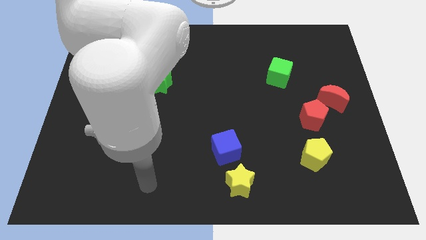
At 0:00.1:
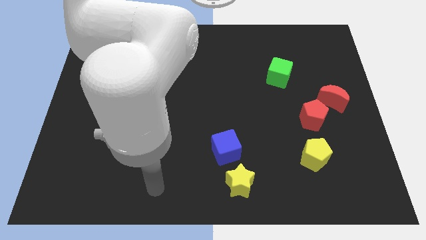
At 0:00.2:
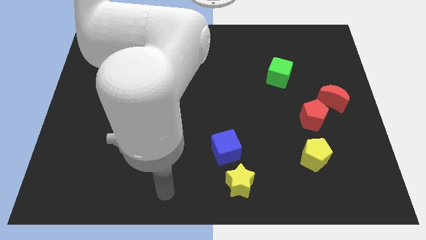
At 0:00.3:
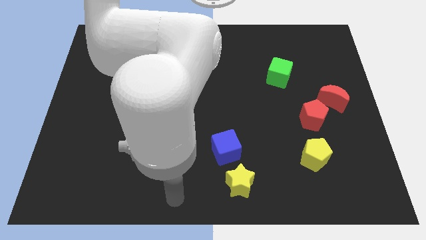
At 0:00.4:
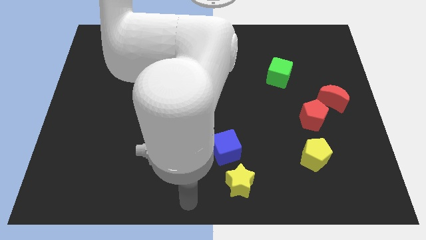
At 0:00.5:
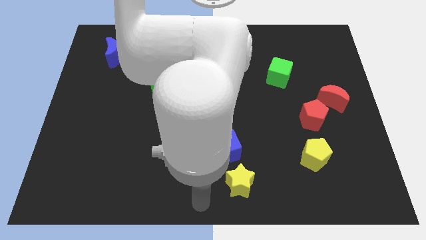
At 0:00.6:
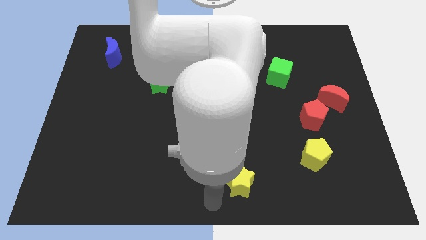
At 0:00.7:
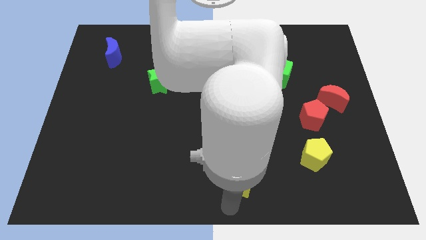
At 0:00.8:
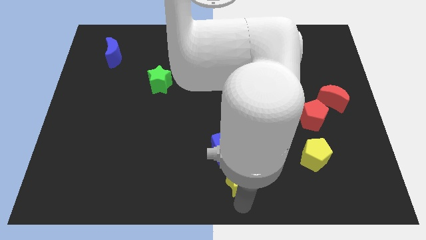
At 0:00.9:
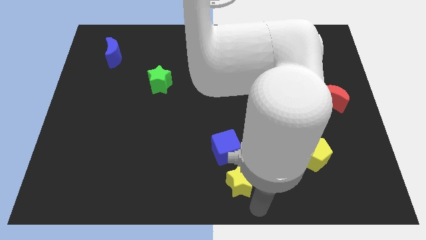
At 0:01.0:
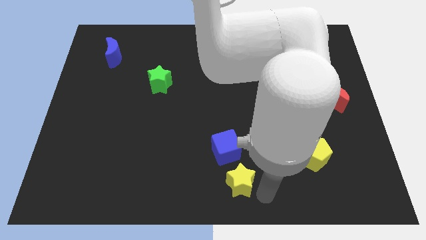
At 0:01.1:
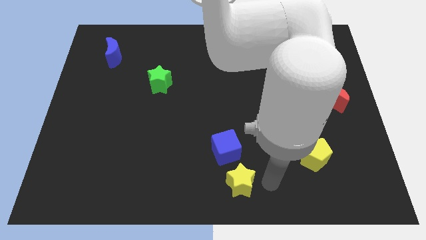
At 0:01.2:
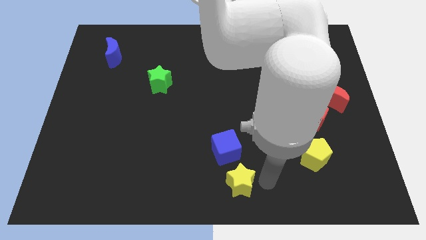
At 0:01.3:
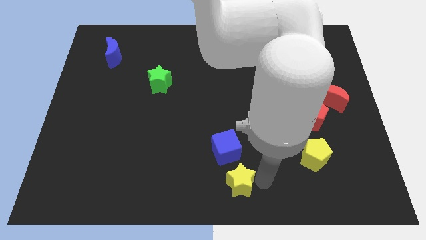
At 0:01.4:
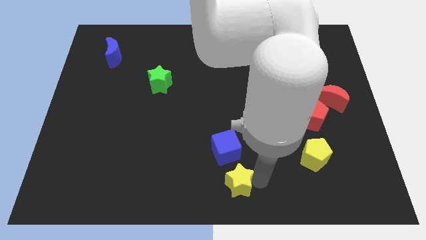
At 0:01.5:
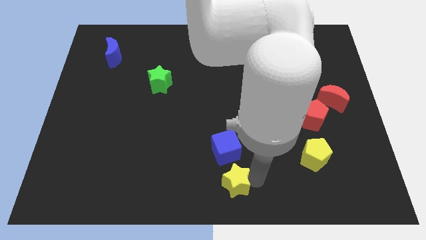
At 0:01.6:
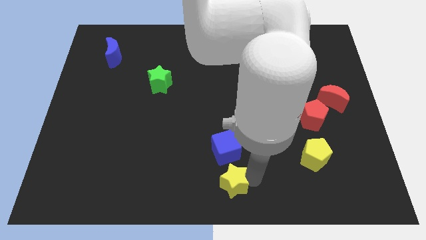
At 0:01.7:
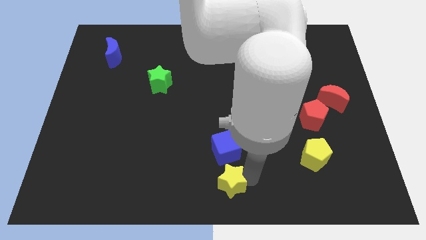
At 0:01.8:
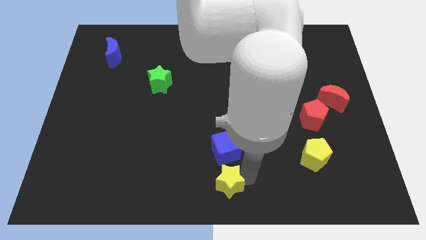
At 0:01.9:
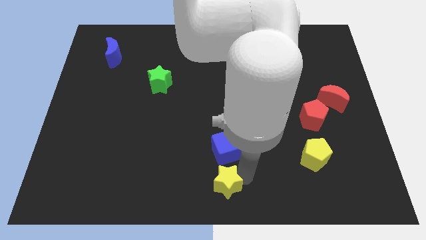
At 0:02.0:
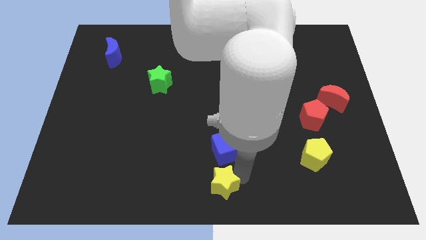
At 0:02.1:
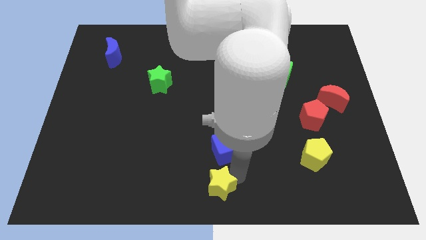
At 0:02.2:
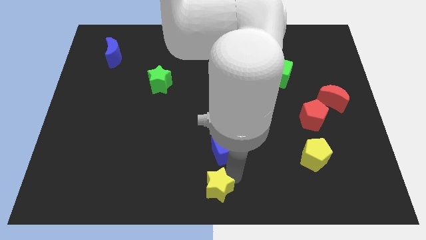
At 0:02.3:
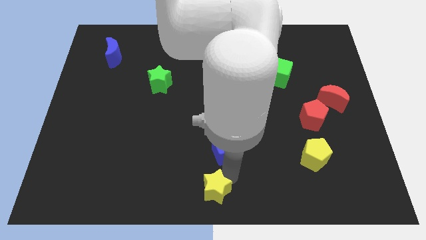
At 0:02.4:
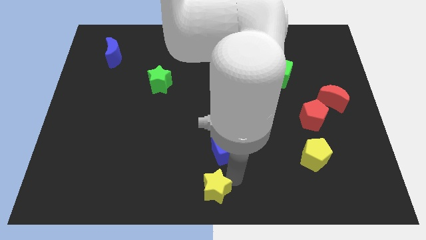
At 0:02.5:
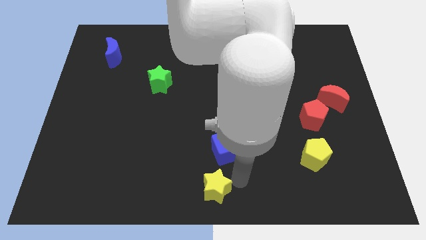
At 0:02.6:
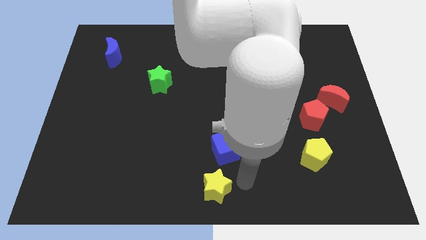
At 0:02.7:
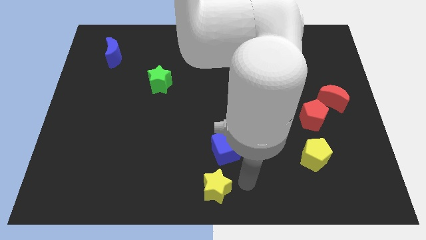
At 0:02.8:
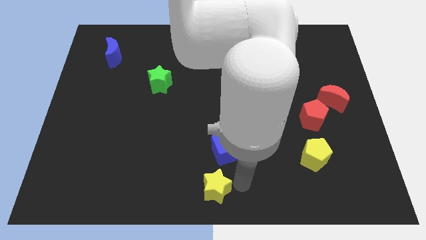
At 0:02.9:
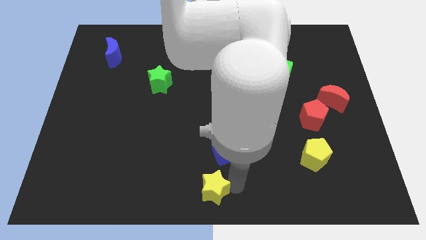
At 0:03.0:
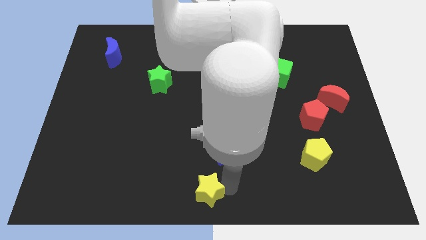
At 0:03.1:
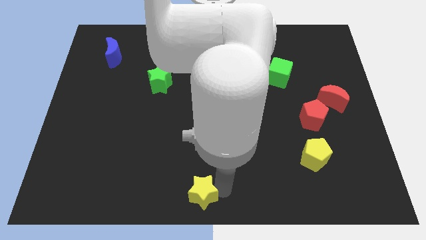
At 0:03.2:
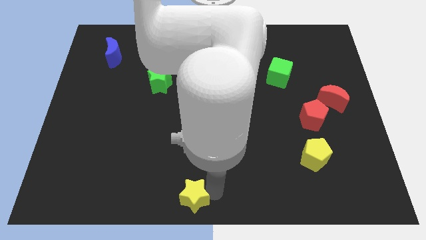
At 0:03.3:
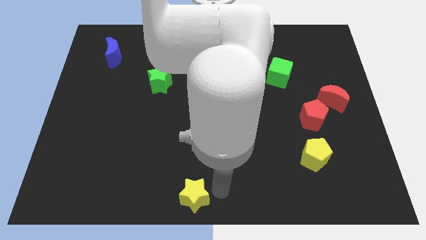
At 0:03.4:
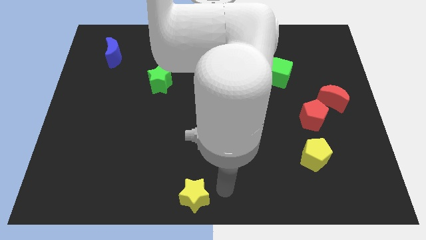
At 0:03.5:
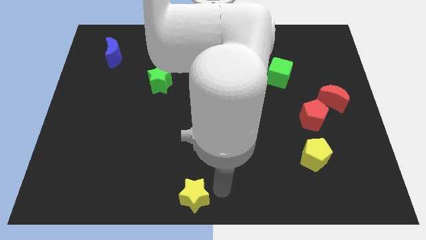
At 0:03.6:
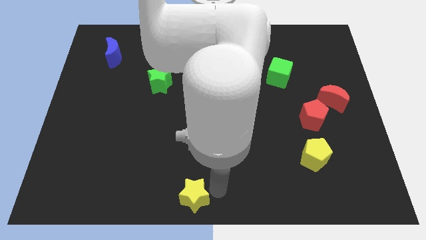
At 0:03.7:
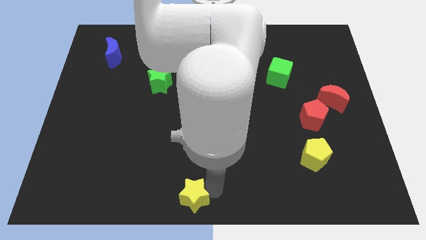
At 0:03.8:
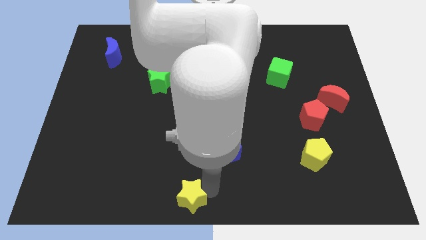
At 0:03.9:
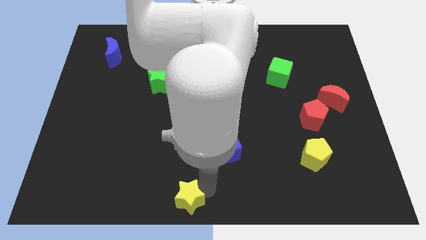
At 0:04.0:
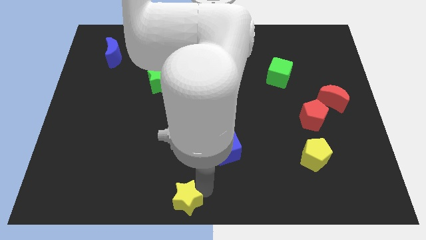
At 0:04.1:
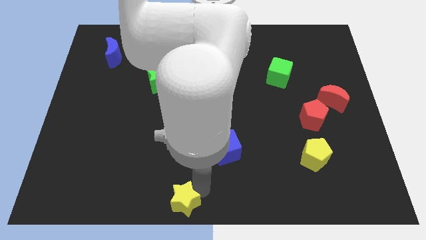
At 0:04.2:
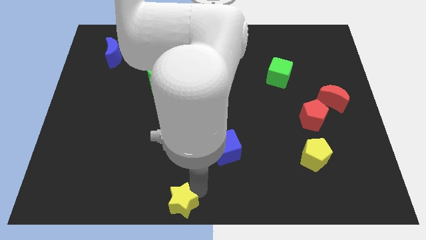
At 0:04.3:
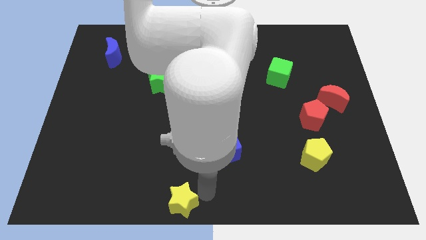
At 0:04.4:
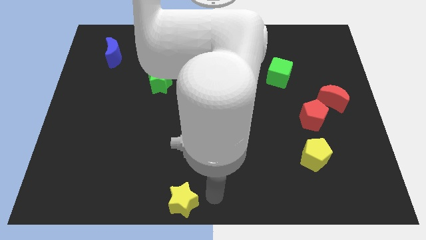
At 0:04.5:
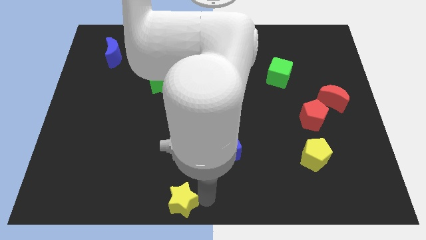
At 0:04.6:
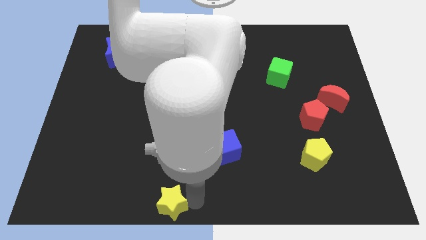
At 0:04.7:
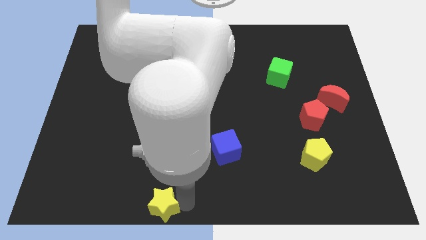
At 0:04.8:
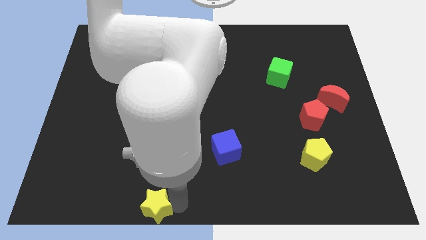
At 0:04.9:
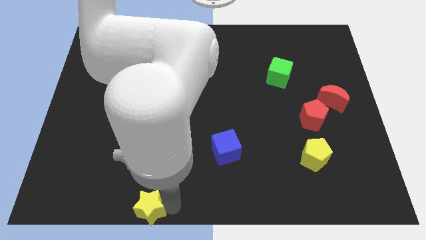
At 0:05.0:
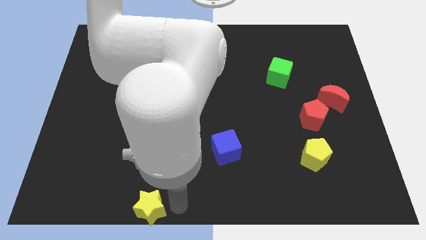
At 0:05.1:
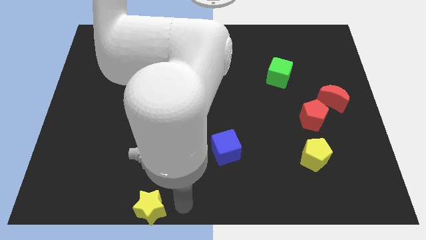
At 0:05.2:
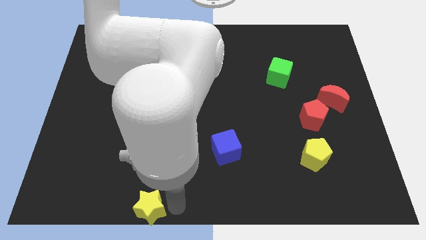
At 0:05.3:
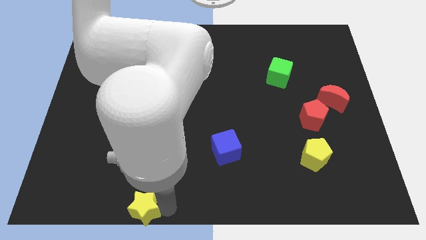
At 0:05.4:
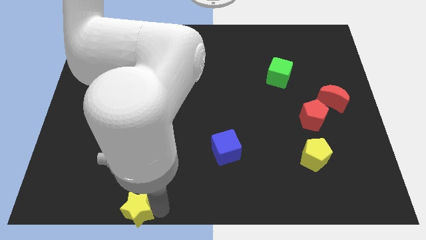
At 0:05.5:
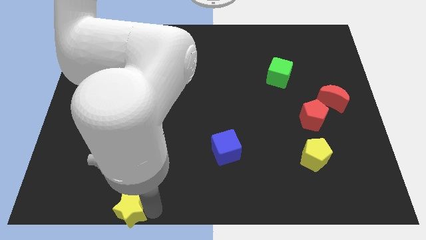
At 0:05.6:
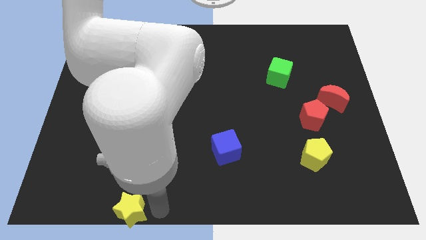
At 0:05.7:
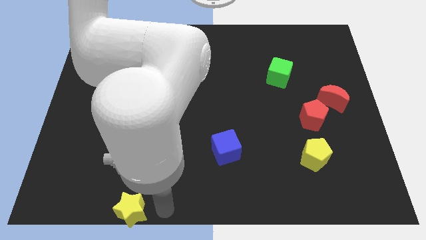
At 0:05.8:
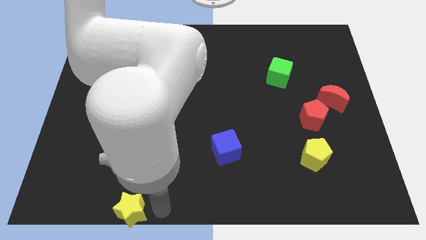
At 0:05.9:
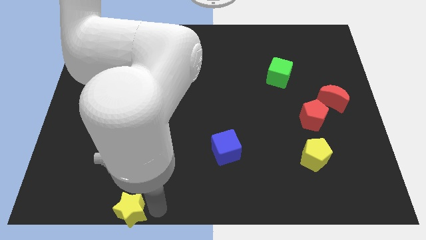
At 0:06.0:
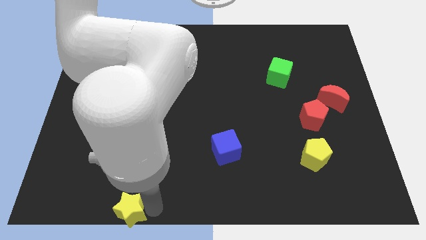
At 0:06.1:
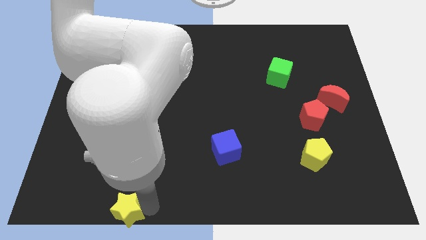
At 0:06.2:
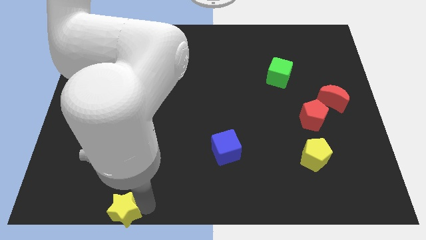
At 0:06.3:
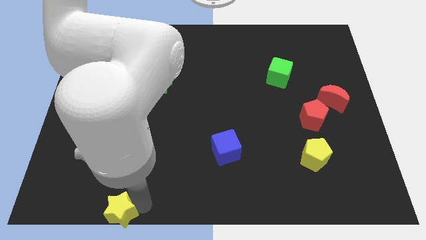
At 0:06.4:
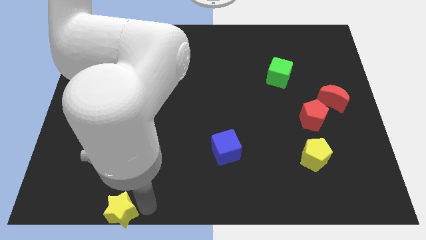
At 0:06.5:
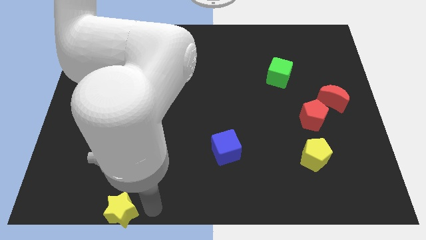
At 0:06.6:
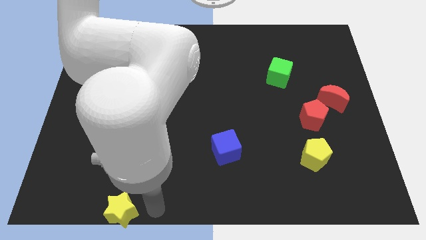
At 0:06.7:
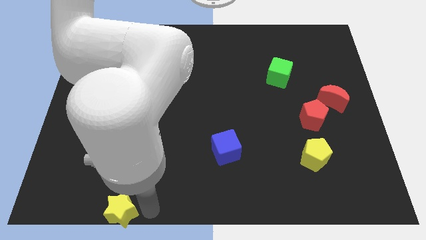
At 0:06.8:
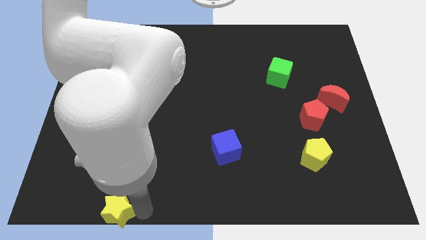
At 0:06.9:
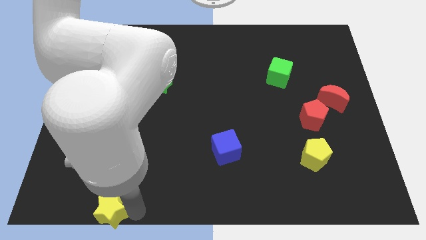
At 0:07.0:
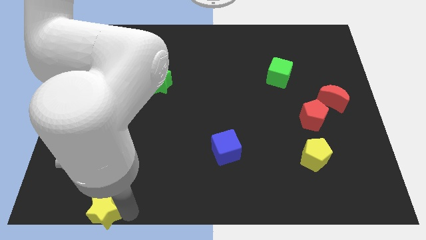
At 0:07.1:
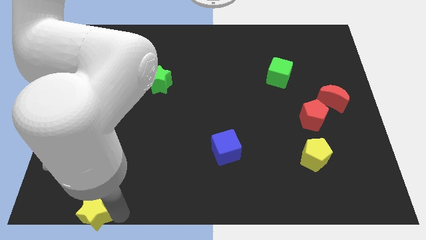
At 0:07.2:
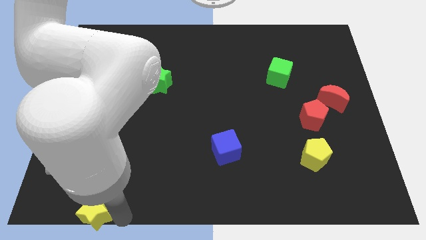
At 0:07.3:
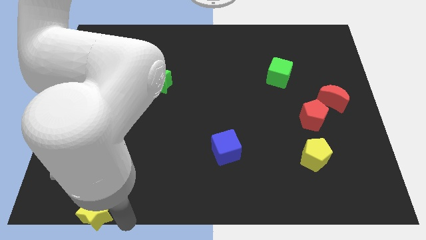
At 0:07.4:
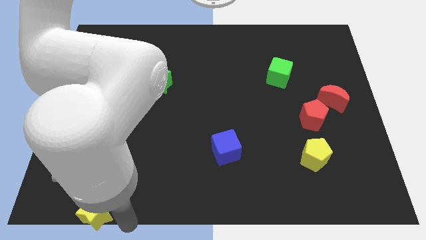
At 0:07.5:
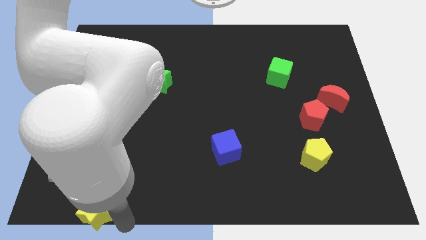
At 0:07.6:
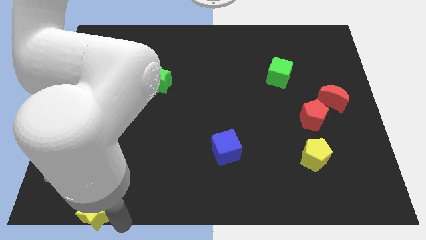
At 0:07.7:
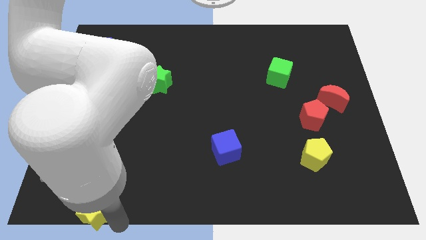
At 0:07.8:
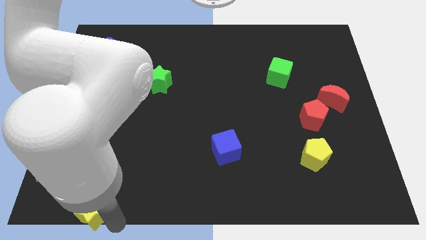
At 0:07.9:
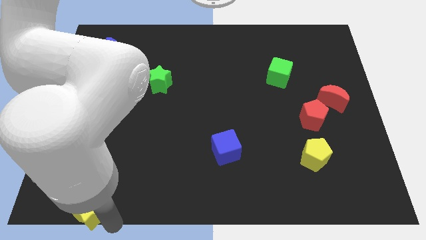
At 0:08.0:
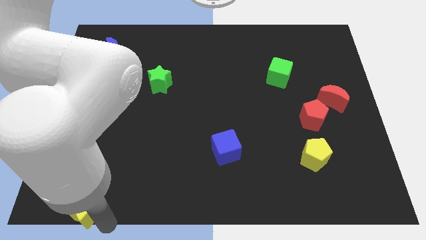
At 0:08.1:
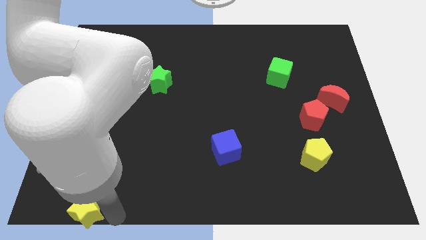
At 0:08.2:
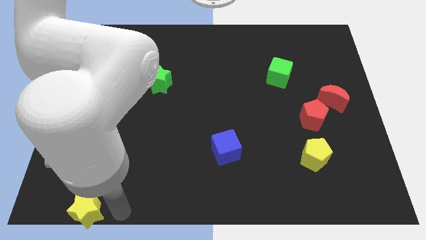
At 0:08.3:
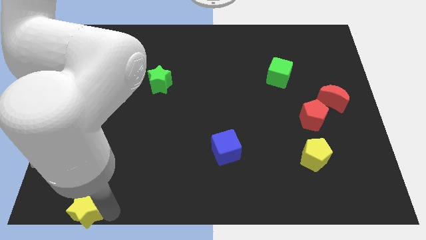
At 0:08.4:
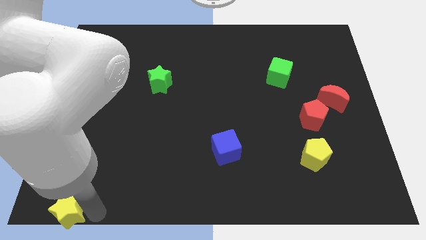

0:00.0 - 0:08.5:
push the yellow star to the lower left corner
